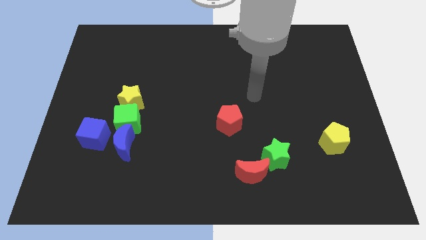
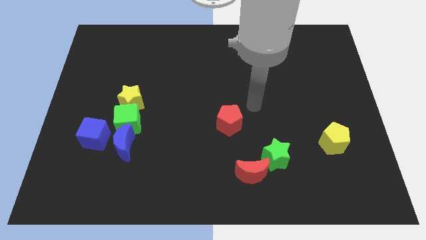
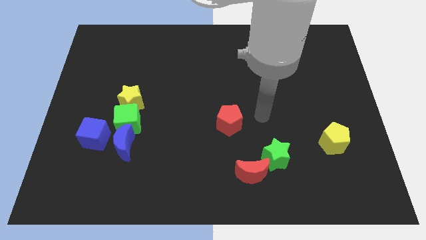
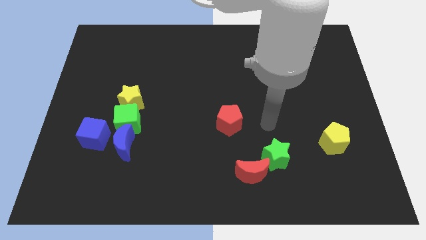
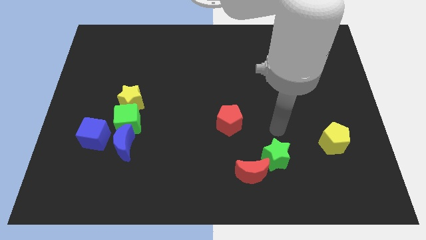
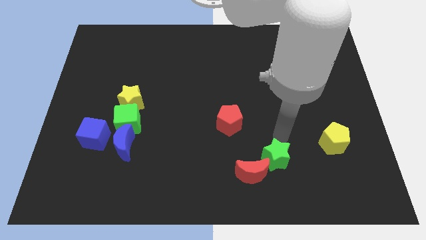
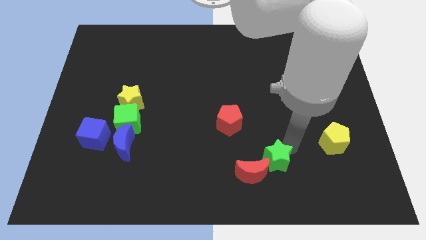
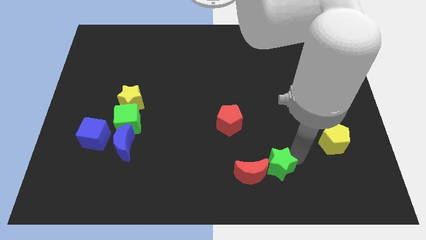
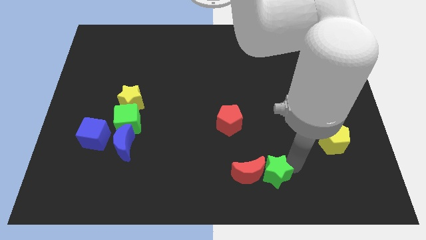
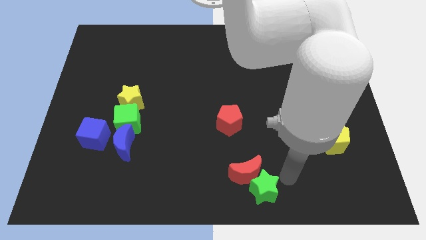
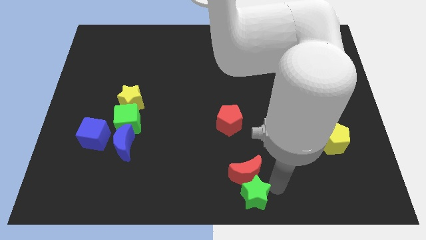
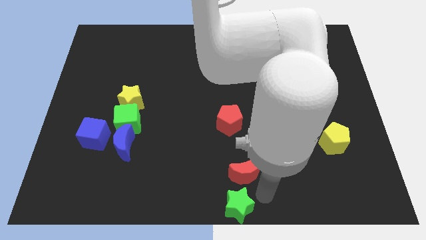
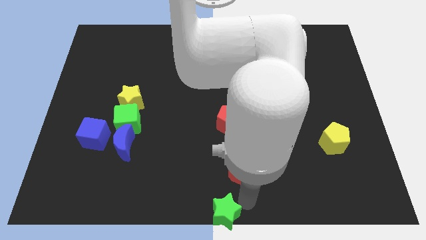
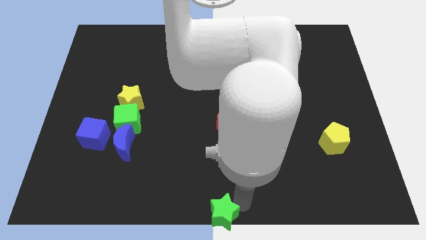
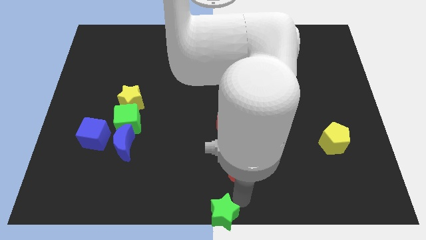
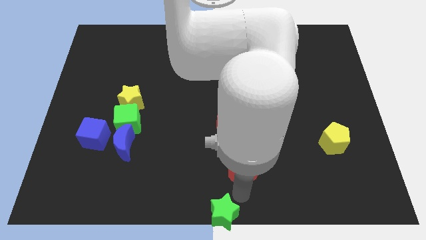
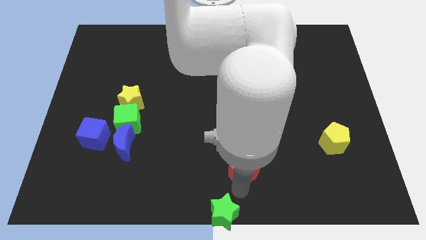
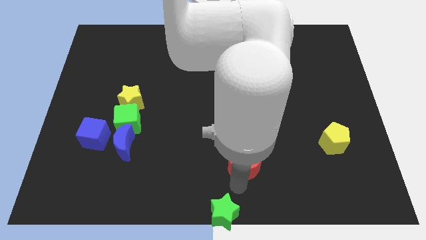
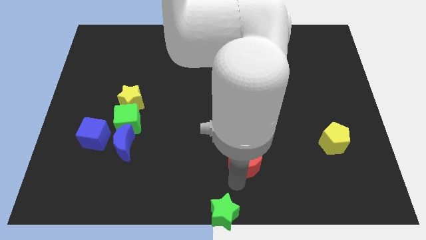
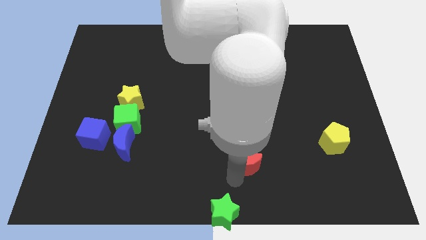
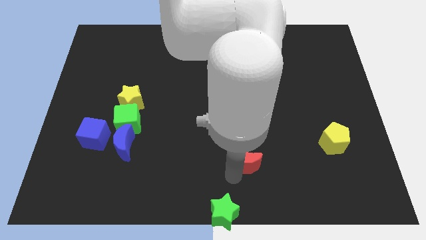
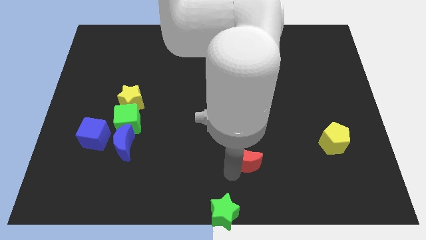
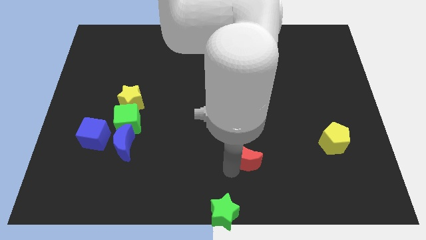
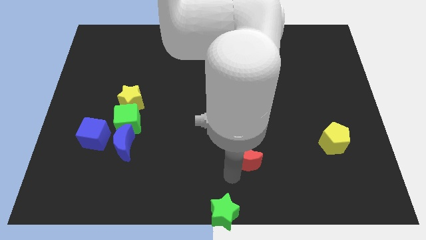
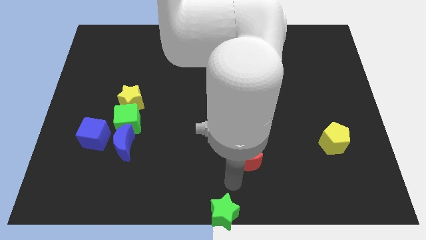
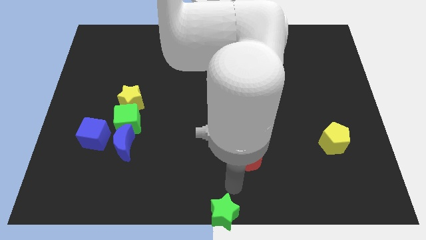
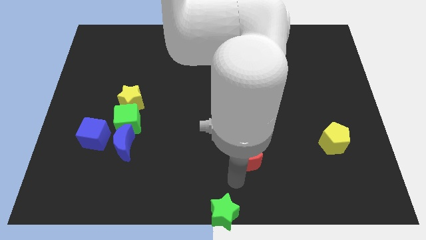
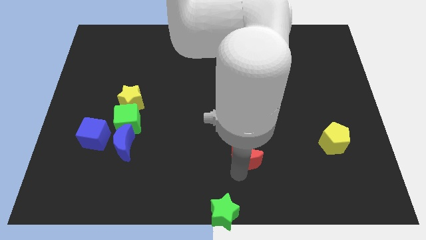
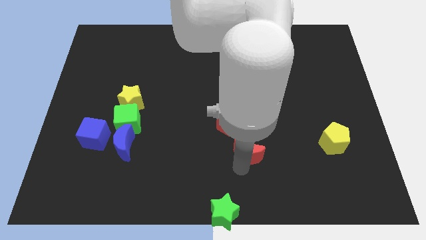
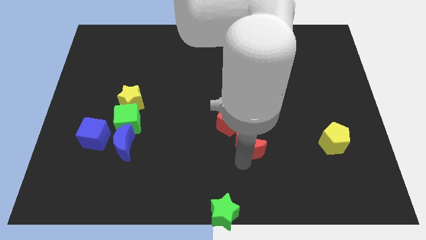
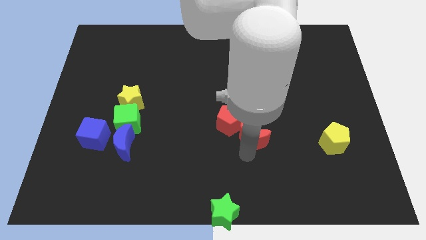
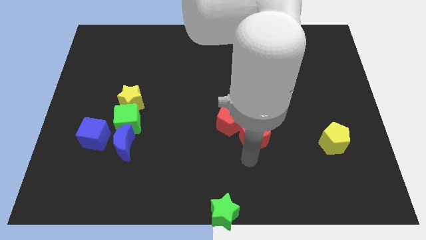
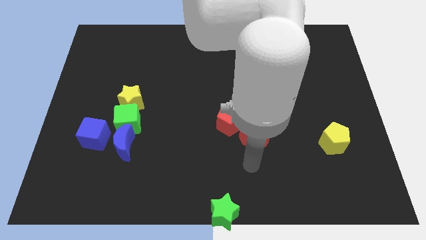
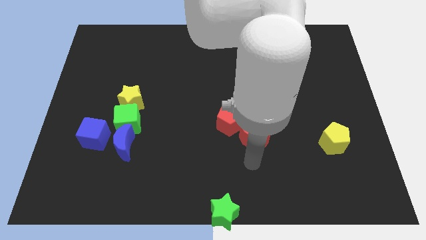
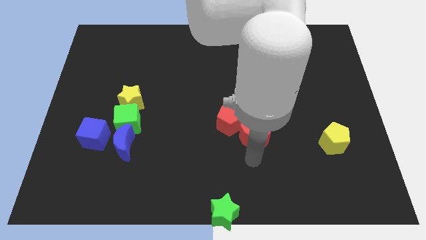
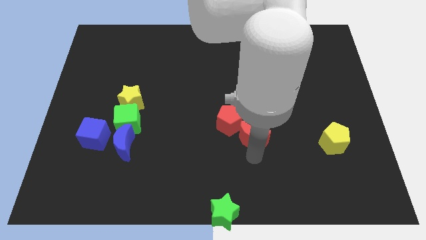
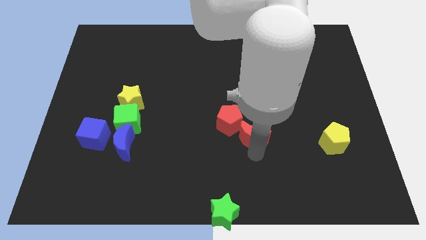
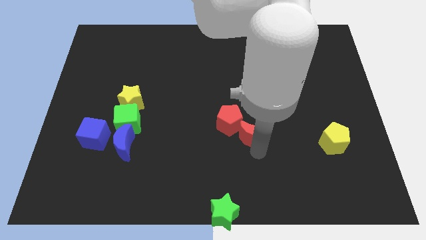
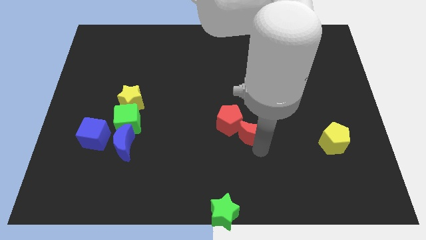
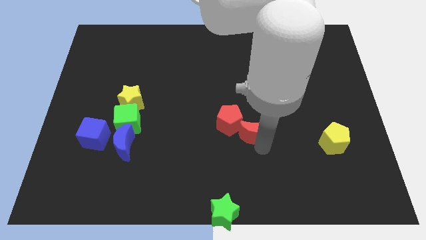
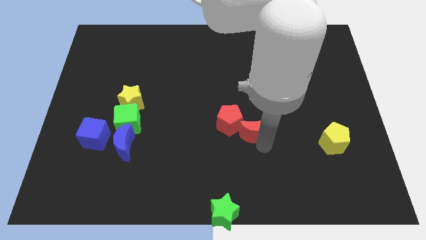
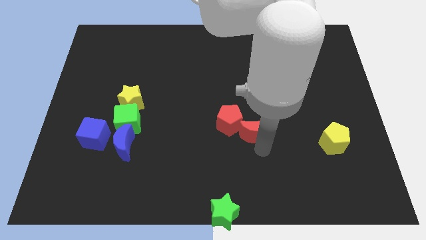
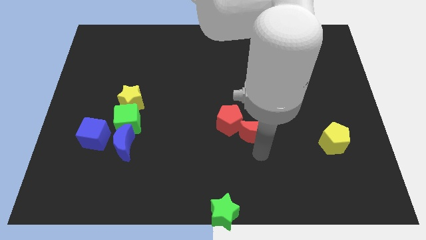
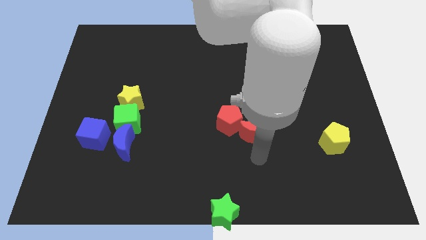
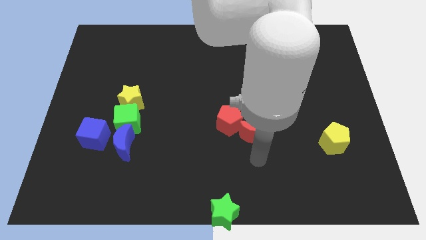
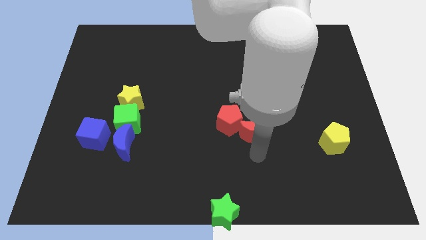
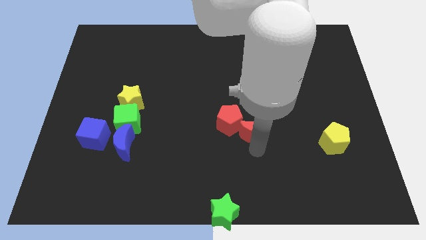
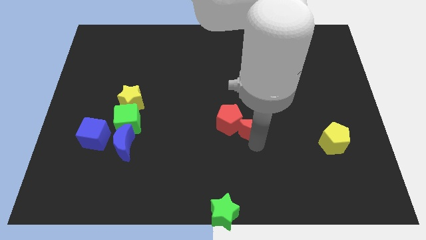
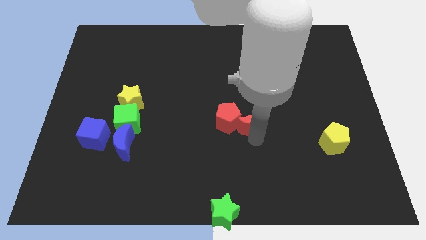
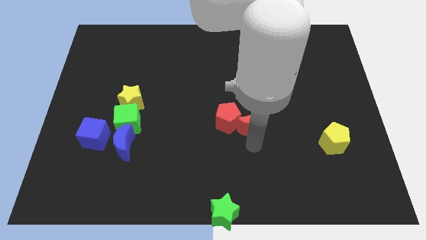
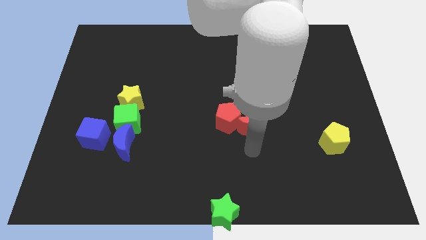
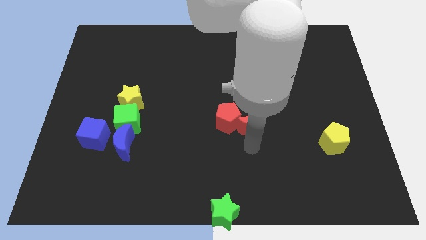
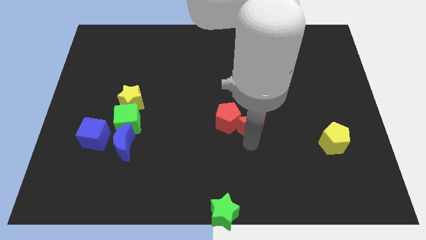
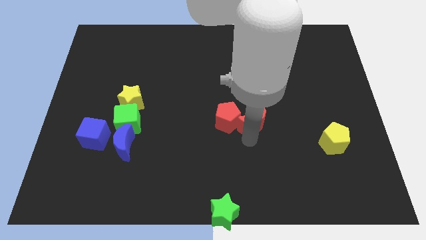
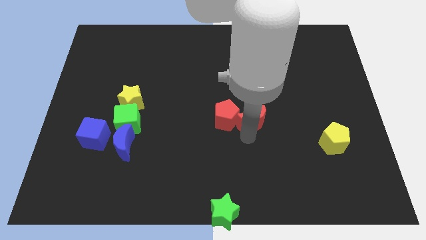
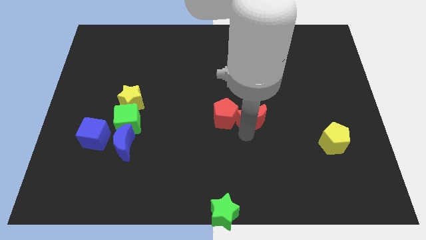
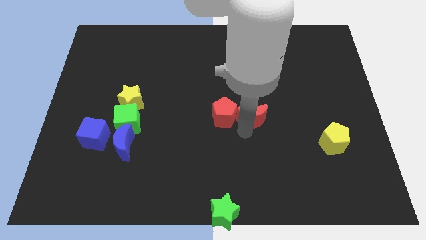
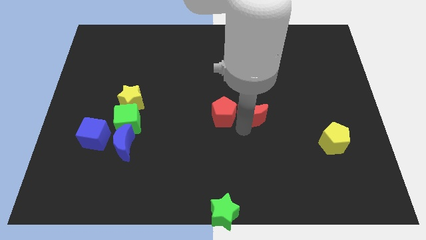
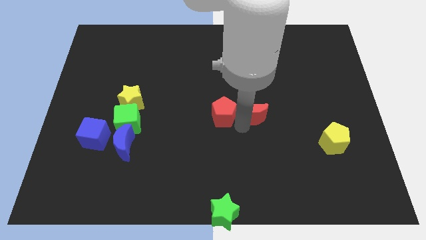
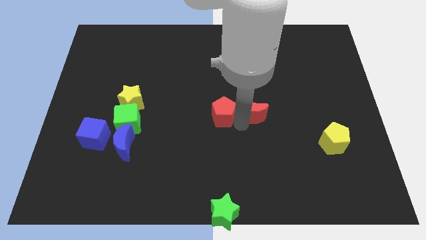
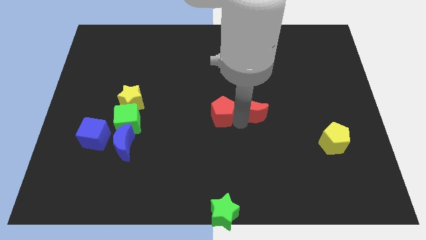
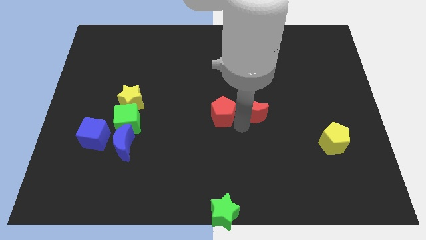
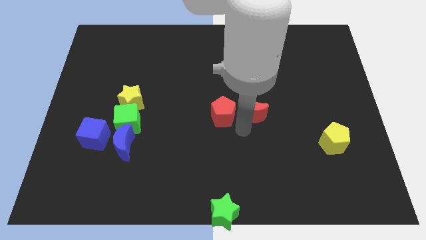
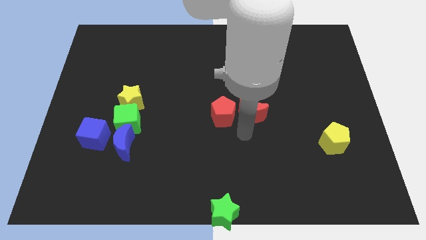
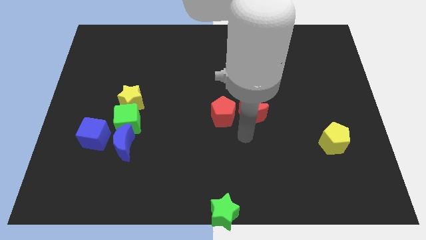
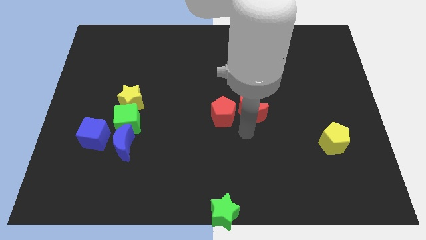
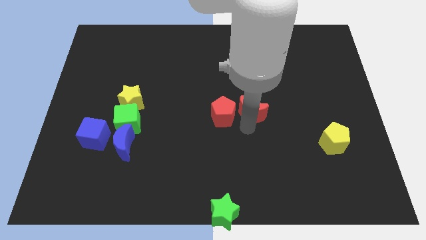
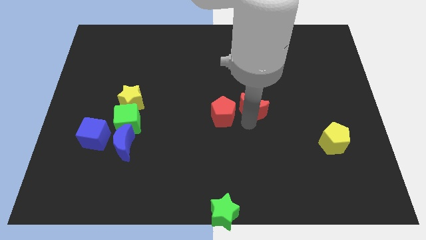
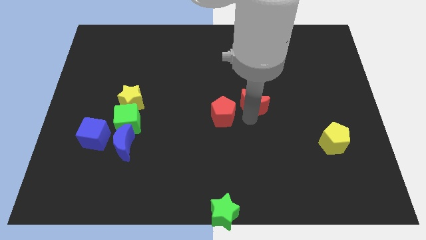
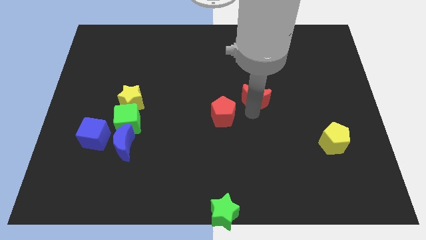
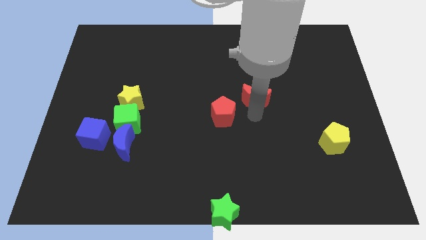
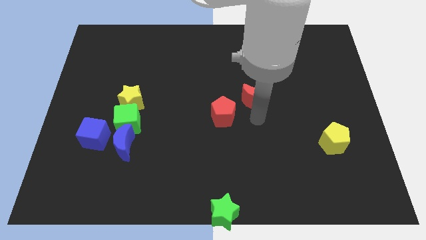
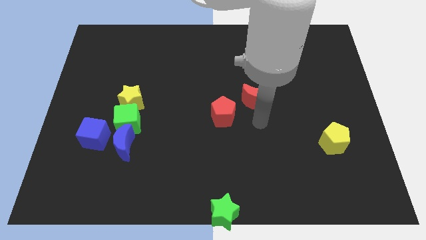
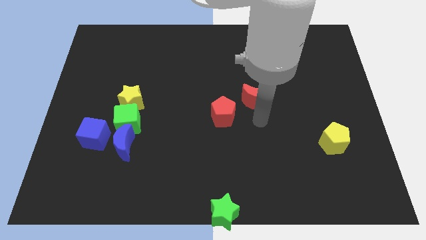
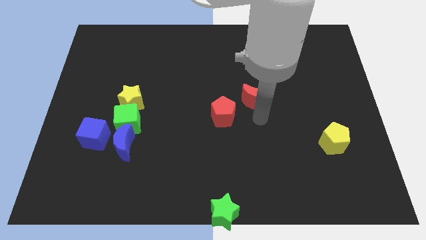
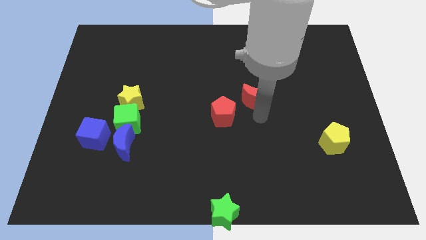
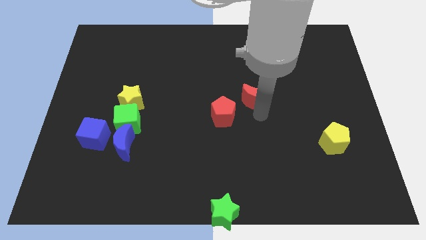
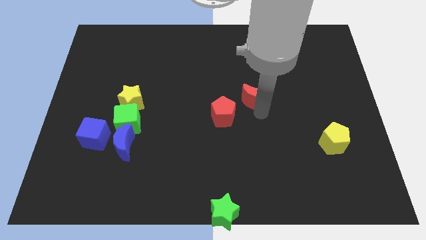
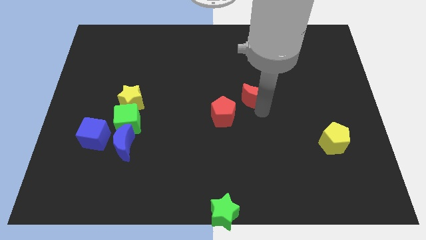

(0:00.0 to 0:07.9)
slide the red moon up

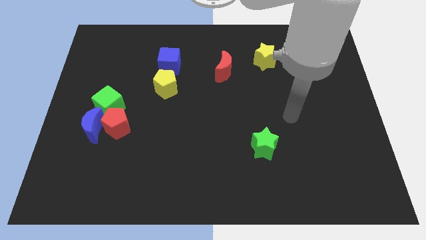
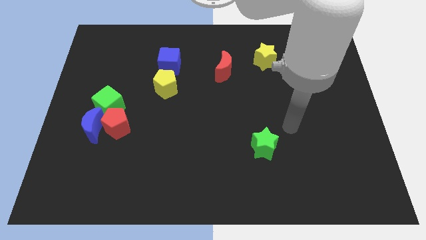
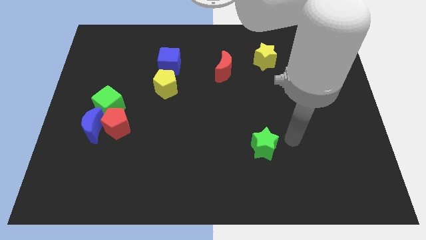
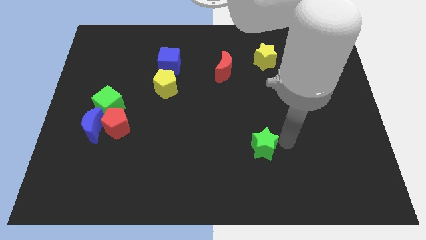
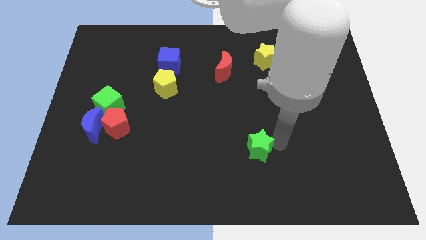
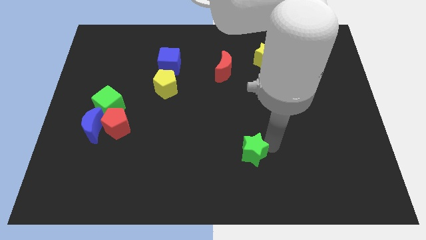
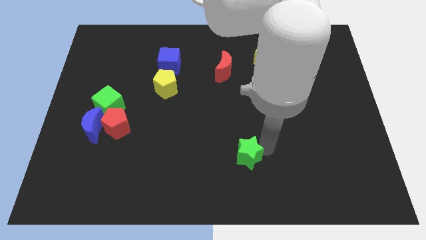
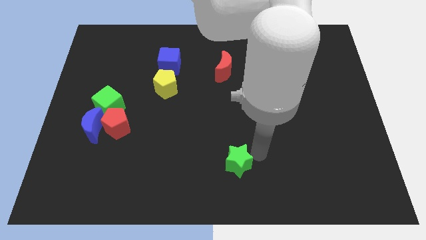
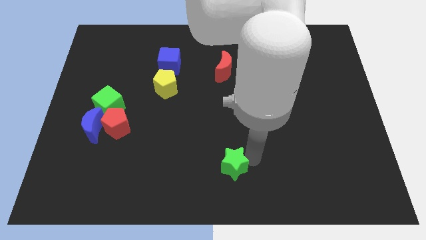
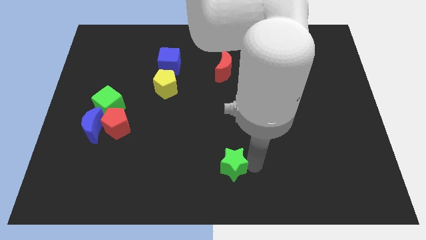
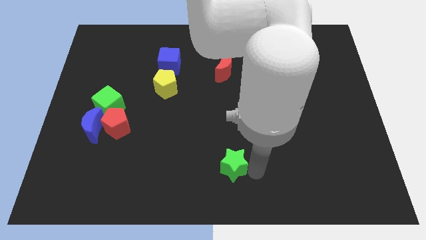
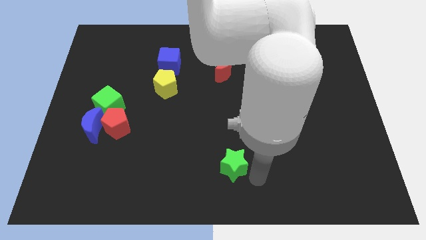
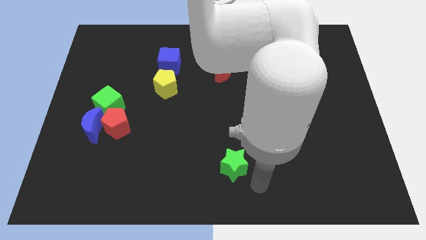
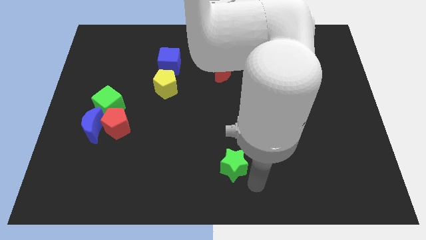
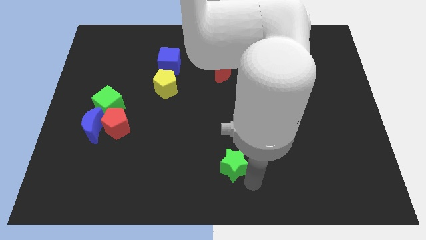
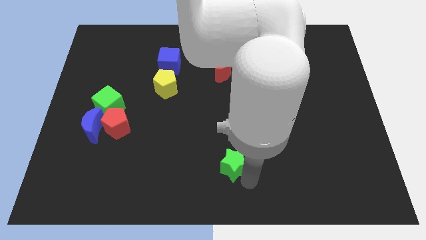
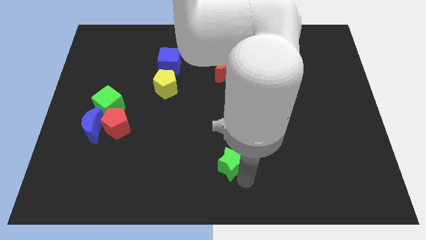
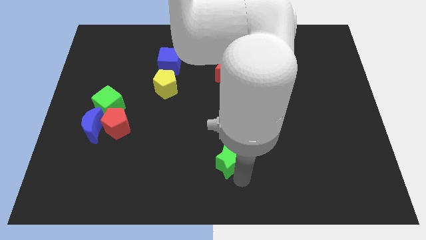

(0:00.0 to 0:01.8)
slightly slide the green star left
